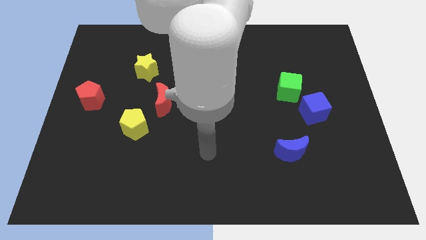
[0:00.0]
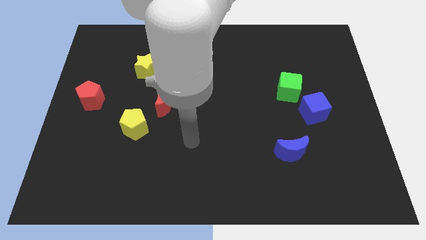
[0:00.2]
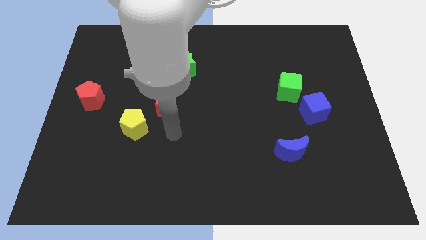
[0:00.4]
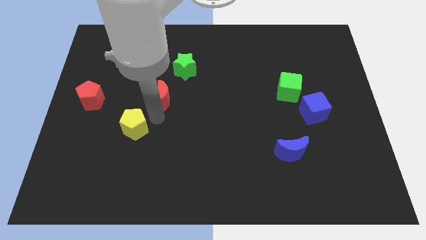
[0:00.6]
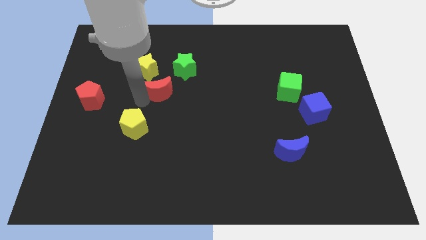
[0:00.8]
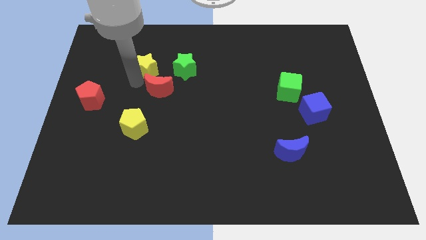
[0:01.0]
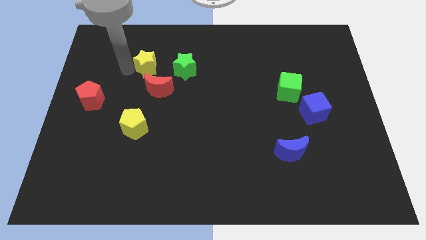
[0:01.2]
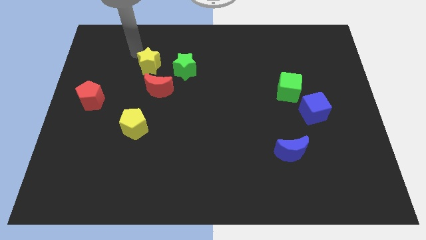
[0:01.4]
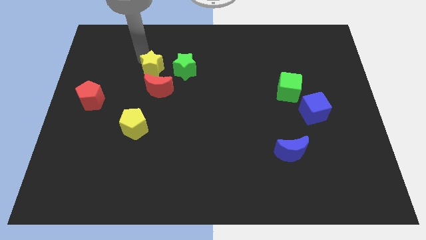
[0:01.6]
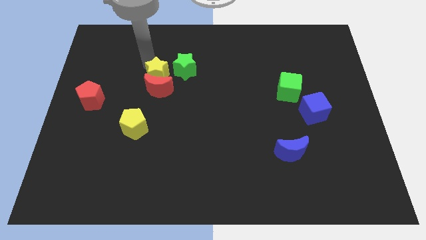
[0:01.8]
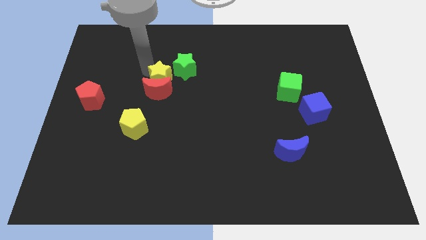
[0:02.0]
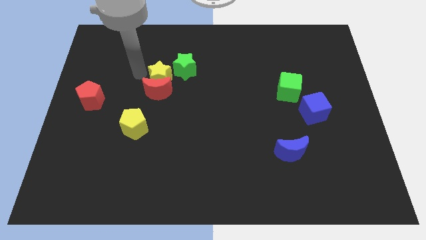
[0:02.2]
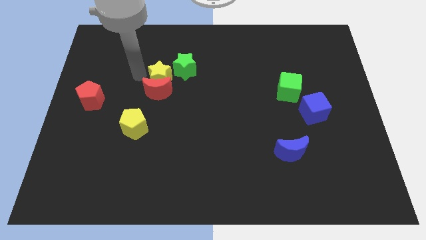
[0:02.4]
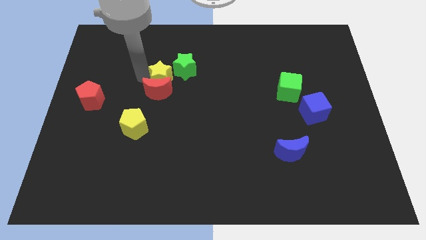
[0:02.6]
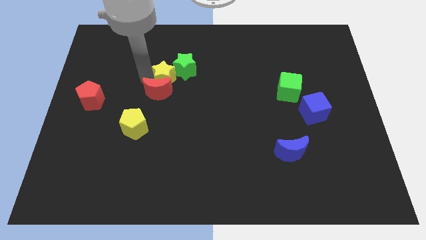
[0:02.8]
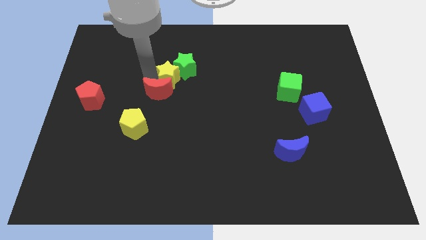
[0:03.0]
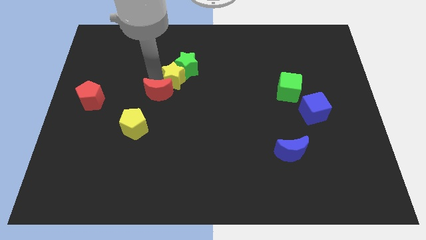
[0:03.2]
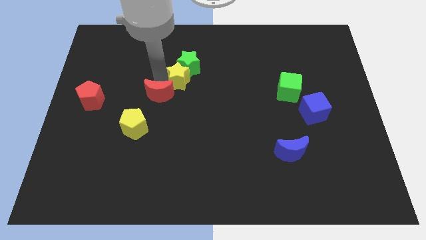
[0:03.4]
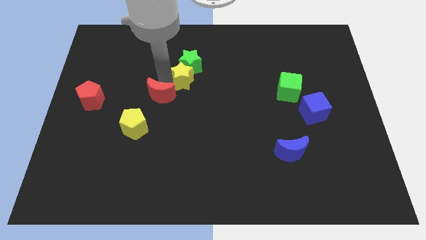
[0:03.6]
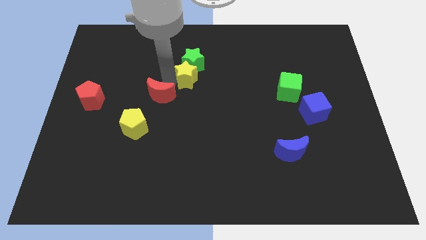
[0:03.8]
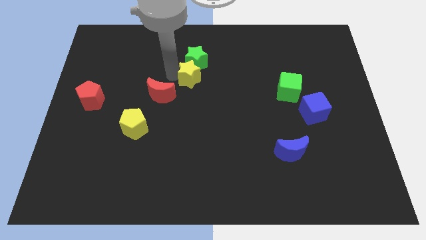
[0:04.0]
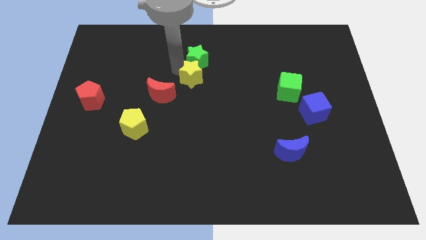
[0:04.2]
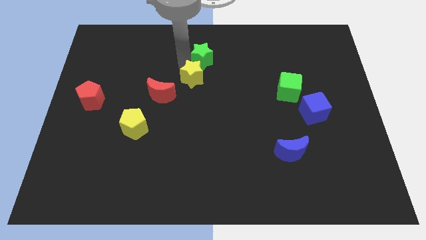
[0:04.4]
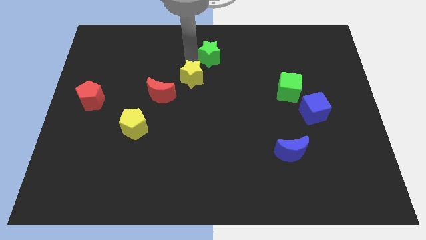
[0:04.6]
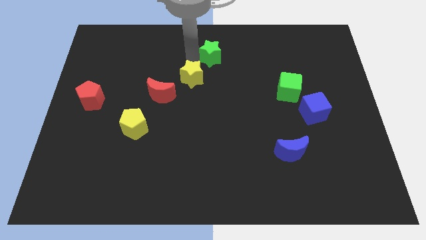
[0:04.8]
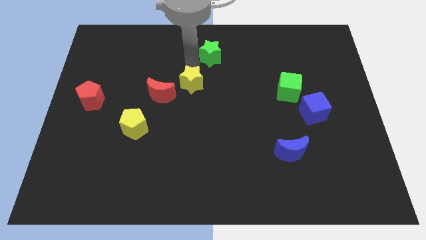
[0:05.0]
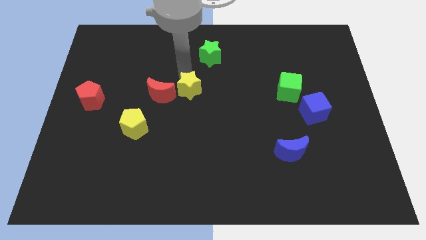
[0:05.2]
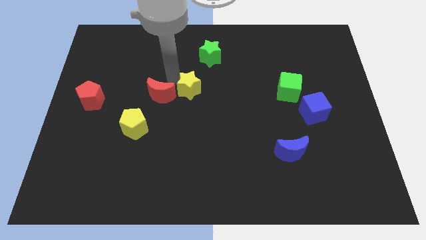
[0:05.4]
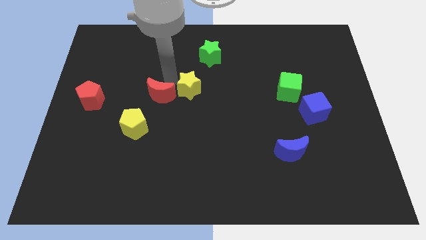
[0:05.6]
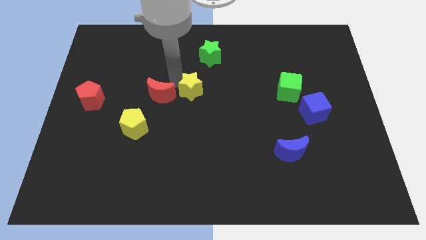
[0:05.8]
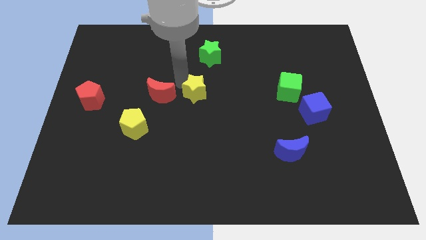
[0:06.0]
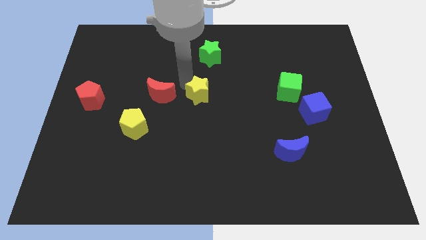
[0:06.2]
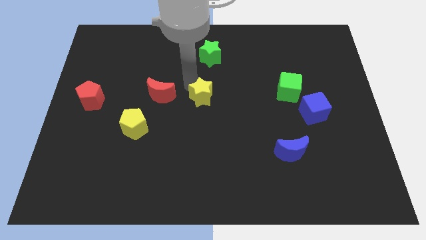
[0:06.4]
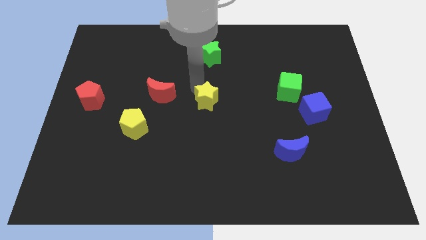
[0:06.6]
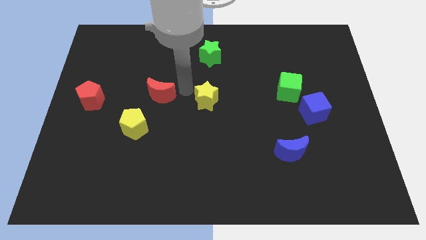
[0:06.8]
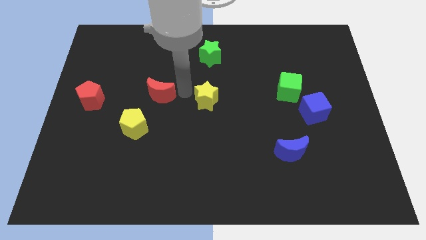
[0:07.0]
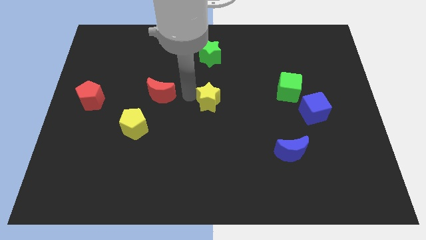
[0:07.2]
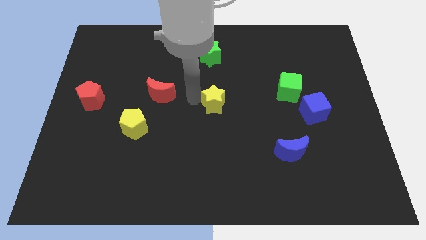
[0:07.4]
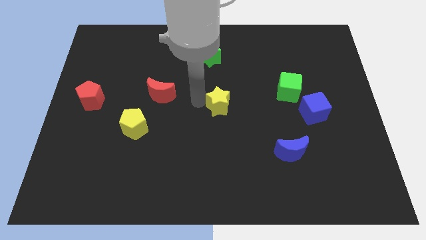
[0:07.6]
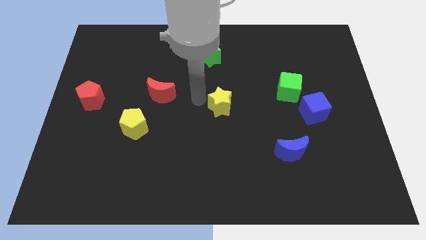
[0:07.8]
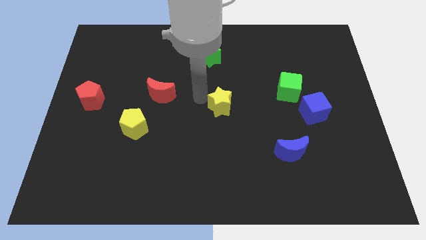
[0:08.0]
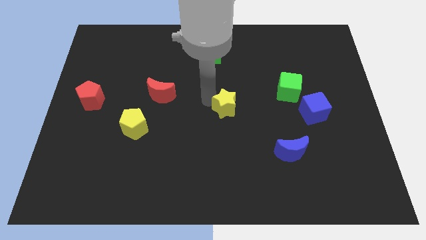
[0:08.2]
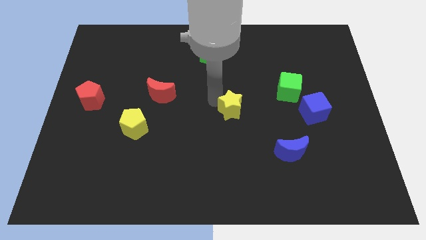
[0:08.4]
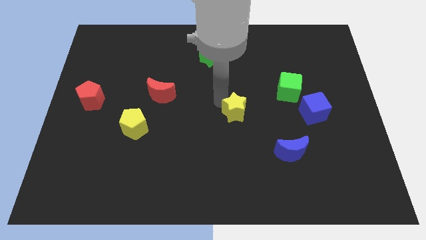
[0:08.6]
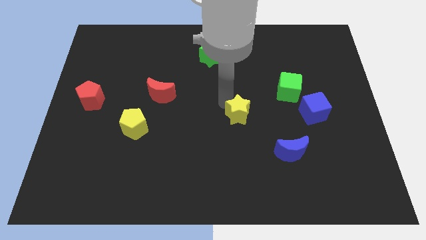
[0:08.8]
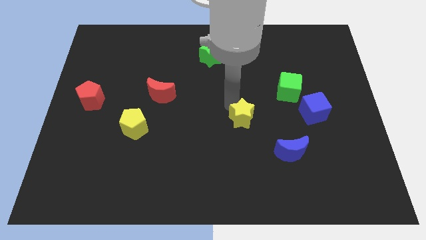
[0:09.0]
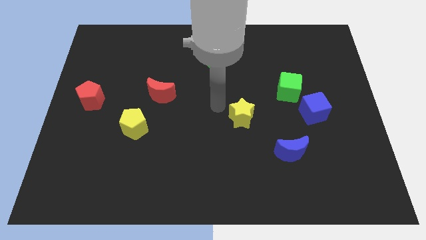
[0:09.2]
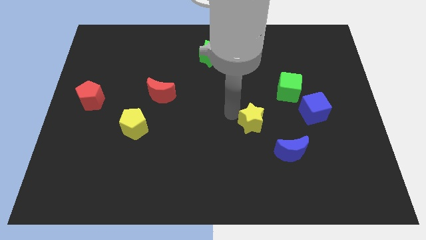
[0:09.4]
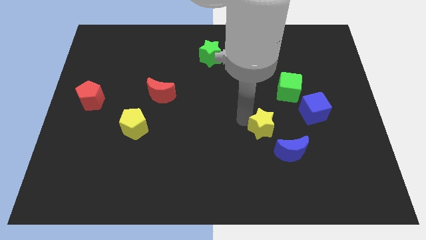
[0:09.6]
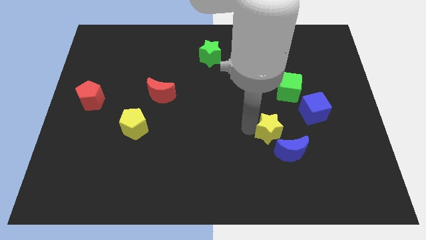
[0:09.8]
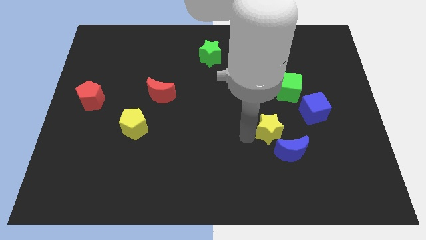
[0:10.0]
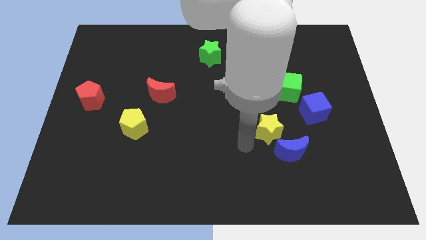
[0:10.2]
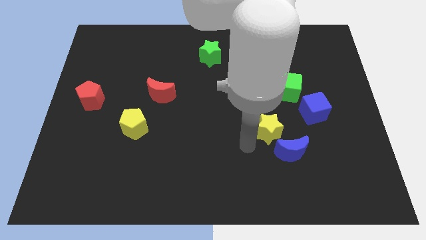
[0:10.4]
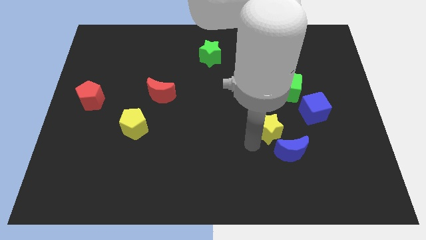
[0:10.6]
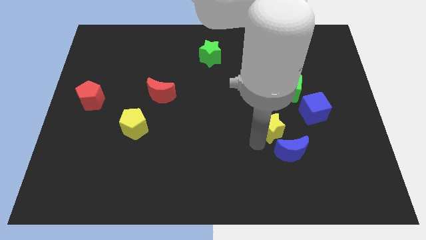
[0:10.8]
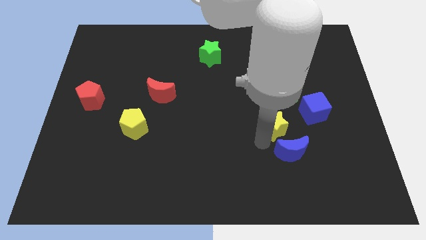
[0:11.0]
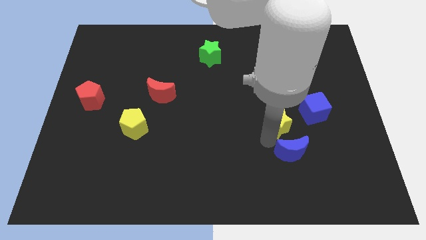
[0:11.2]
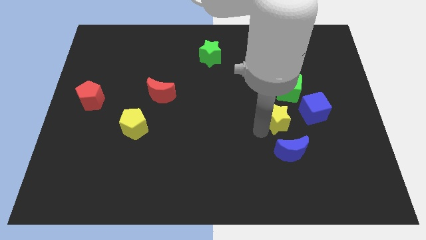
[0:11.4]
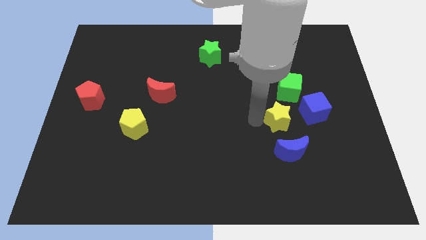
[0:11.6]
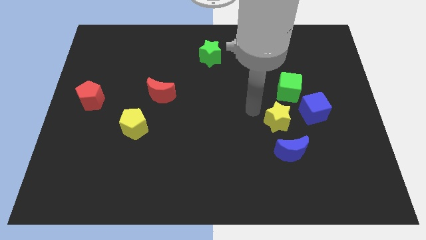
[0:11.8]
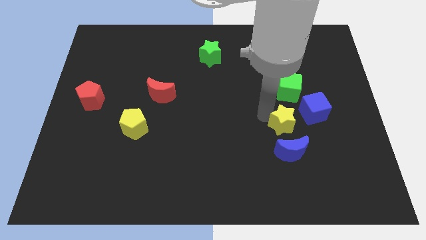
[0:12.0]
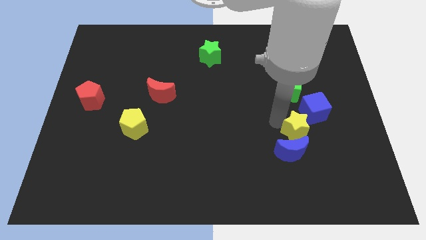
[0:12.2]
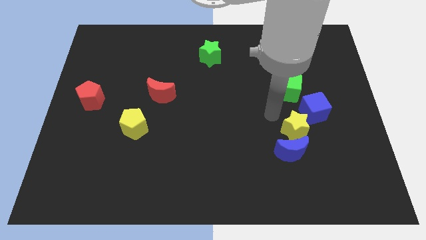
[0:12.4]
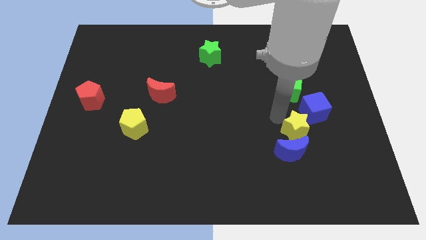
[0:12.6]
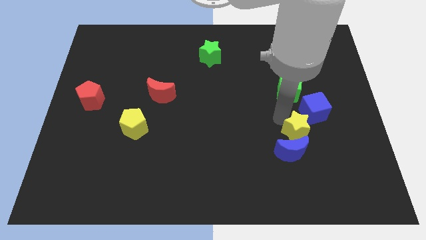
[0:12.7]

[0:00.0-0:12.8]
move the yellow star to the bottom of the blue cube
